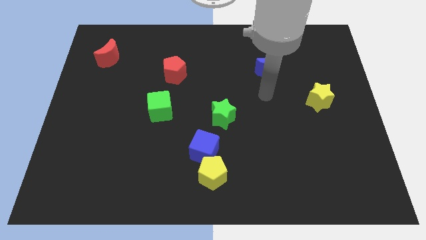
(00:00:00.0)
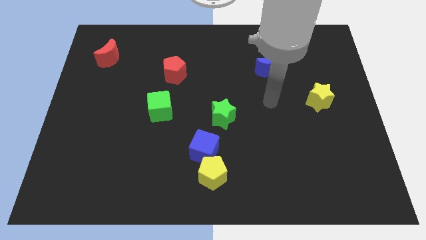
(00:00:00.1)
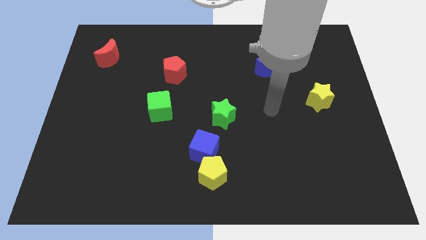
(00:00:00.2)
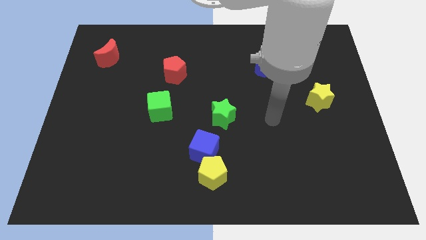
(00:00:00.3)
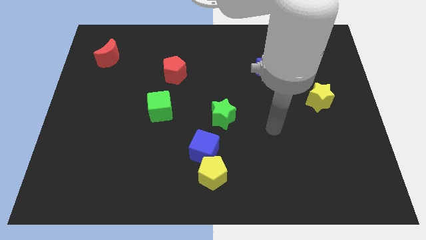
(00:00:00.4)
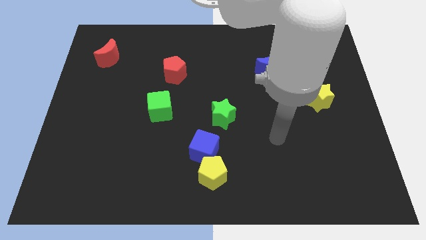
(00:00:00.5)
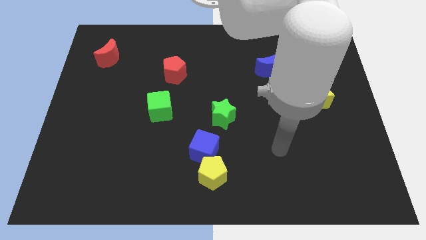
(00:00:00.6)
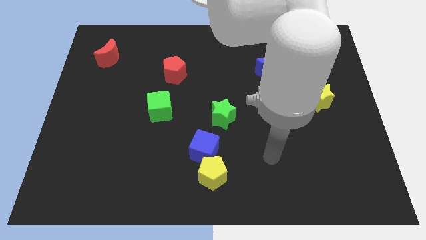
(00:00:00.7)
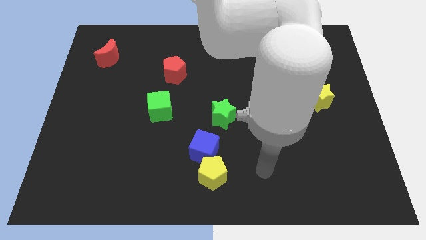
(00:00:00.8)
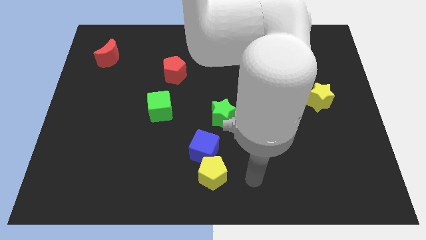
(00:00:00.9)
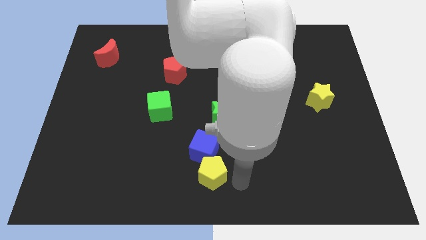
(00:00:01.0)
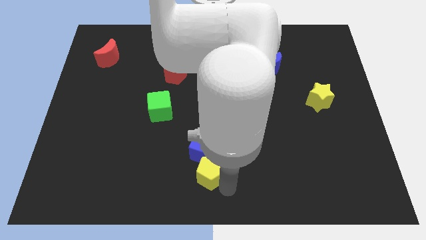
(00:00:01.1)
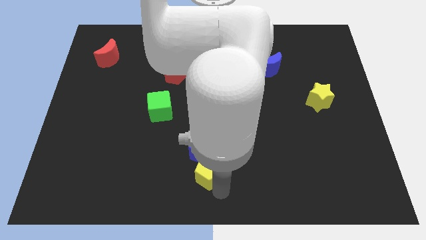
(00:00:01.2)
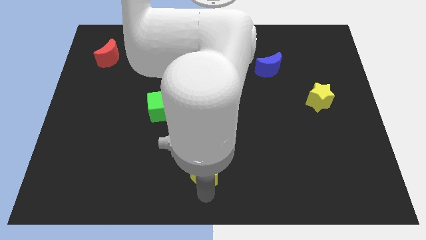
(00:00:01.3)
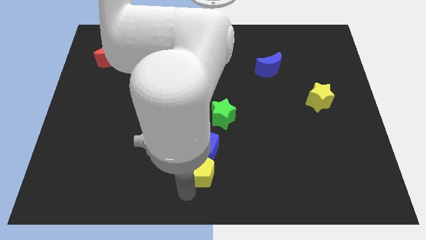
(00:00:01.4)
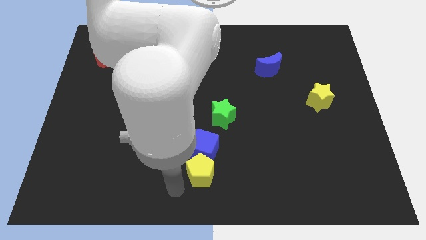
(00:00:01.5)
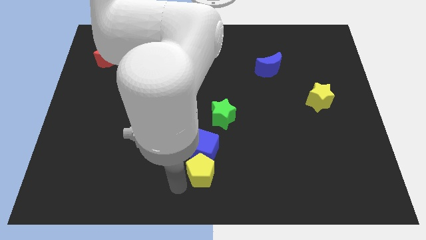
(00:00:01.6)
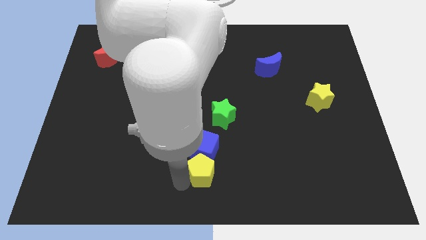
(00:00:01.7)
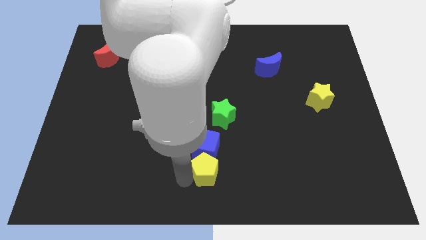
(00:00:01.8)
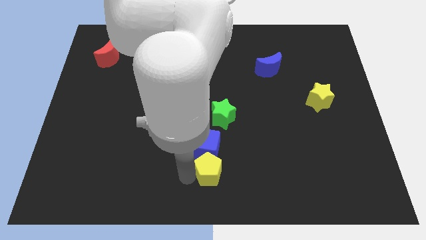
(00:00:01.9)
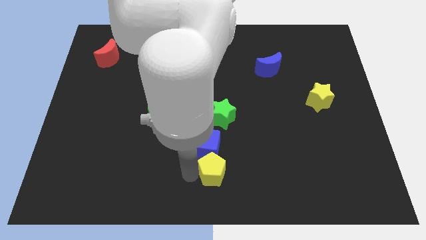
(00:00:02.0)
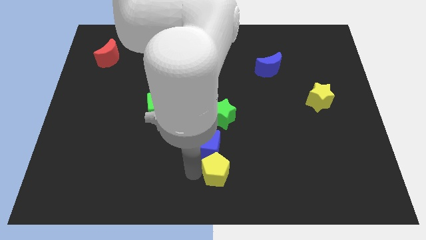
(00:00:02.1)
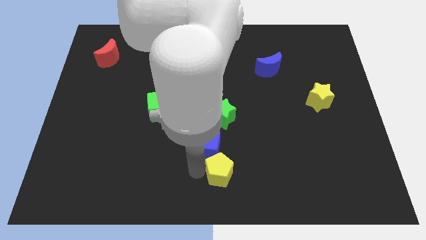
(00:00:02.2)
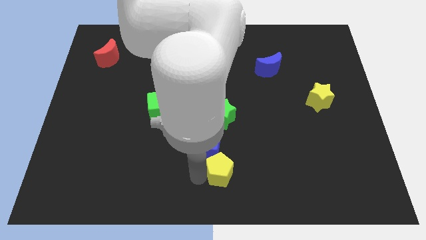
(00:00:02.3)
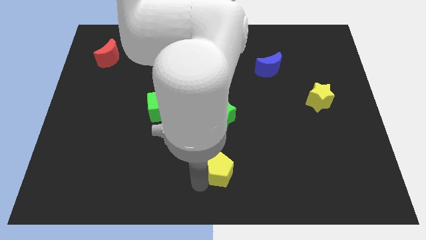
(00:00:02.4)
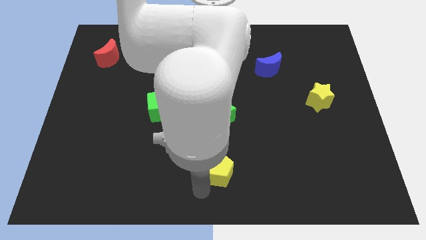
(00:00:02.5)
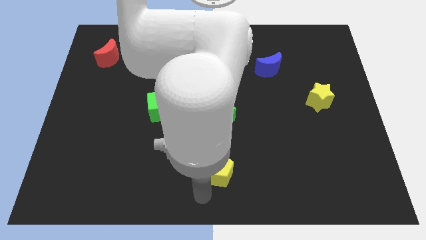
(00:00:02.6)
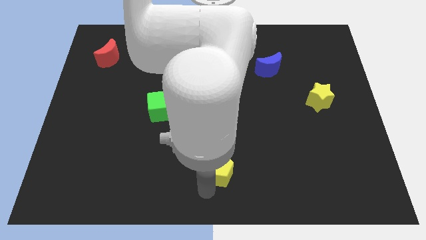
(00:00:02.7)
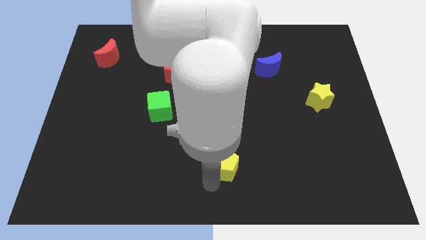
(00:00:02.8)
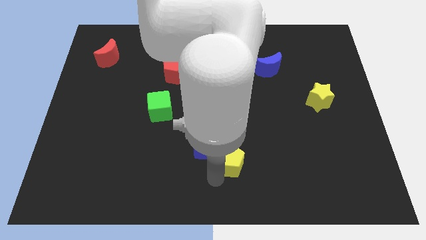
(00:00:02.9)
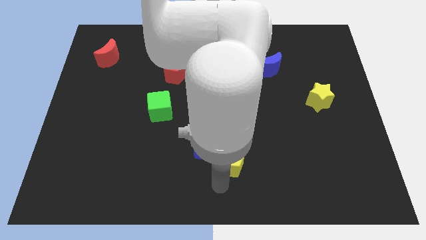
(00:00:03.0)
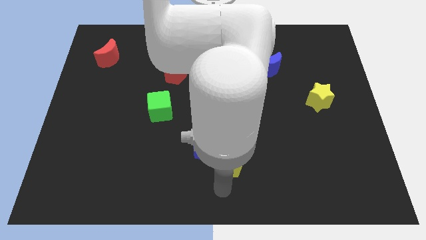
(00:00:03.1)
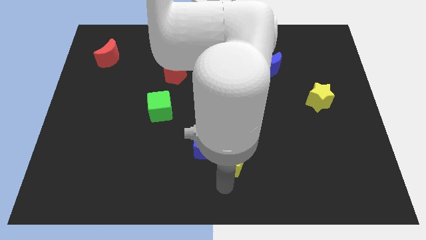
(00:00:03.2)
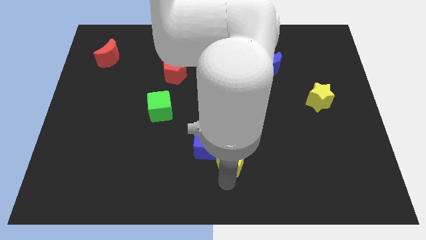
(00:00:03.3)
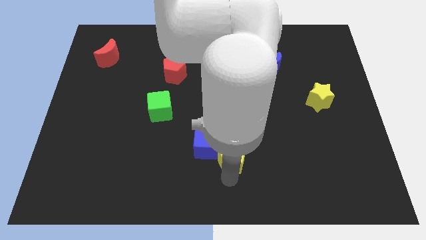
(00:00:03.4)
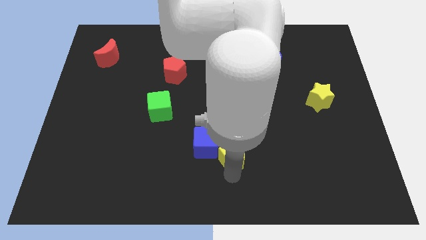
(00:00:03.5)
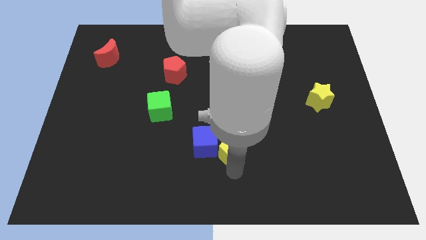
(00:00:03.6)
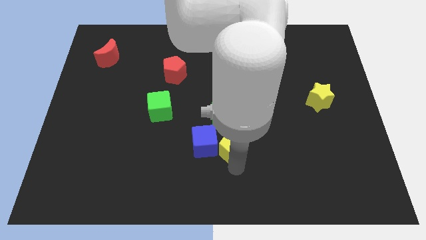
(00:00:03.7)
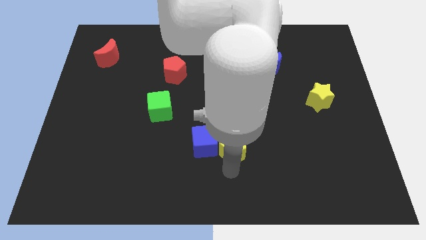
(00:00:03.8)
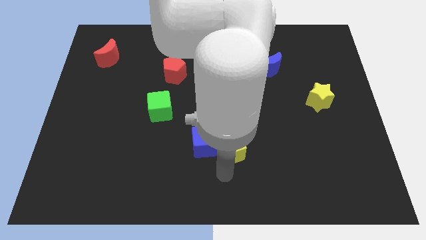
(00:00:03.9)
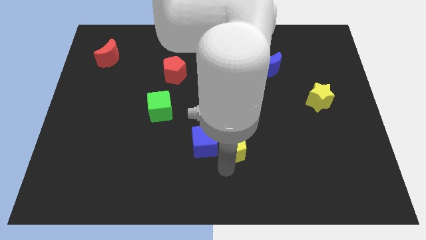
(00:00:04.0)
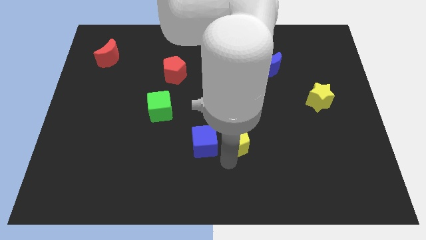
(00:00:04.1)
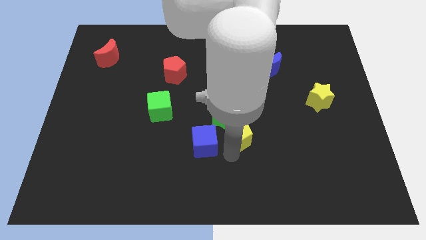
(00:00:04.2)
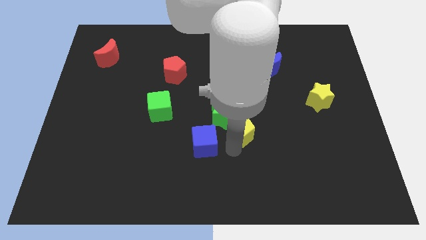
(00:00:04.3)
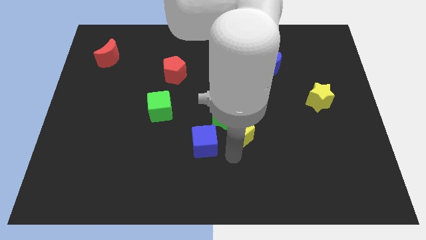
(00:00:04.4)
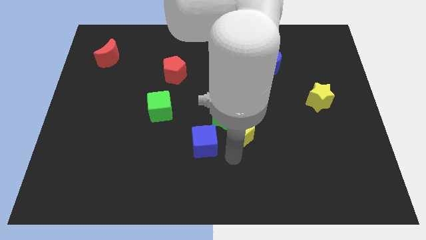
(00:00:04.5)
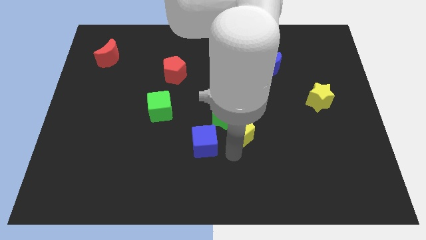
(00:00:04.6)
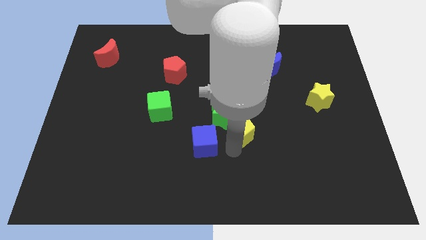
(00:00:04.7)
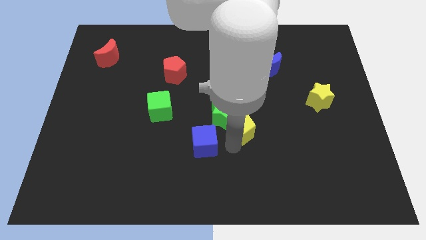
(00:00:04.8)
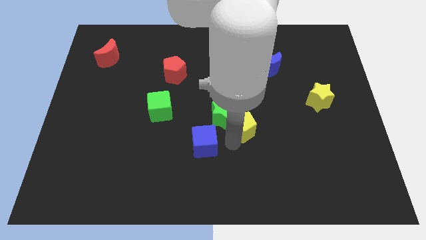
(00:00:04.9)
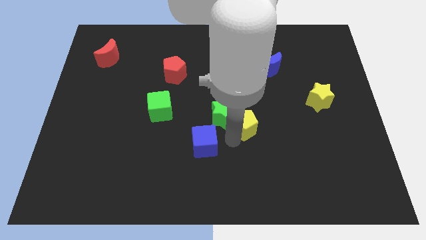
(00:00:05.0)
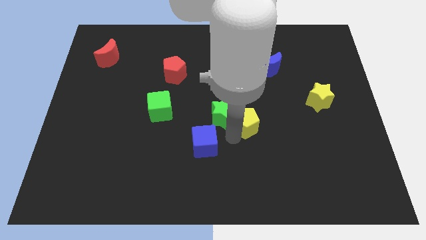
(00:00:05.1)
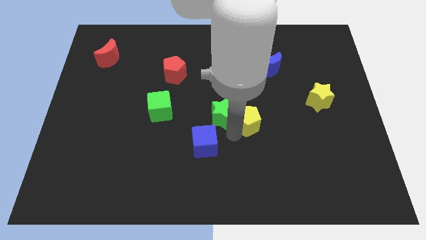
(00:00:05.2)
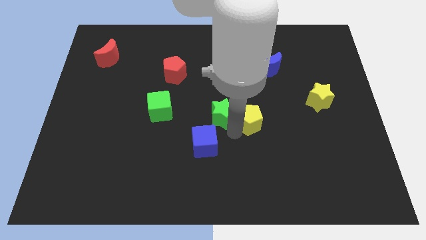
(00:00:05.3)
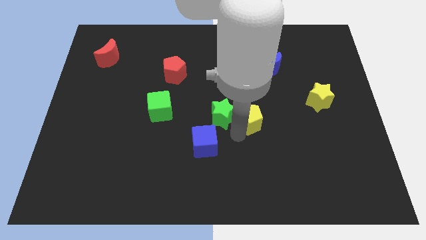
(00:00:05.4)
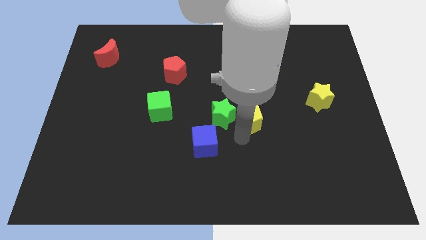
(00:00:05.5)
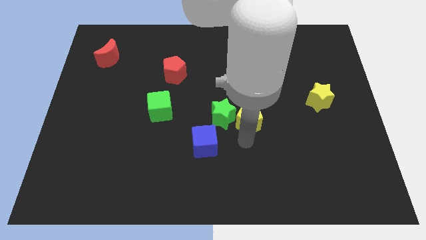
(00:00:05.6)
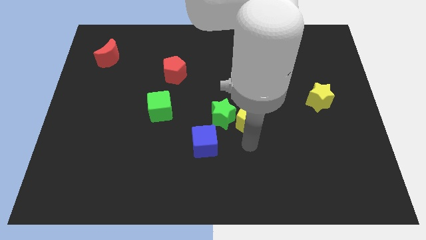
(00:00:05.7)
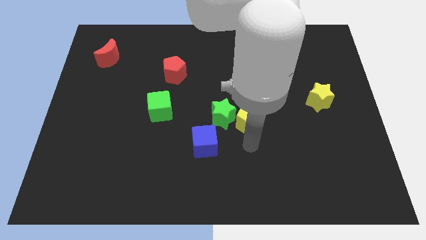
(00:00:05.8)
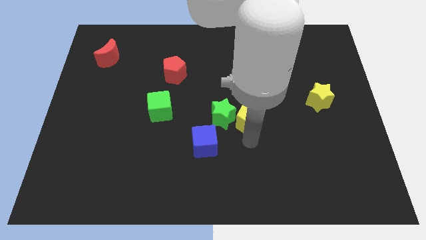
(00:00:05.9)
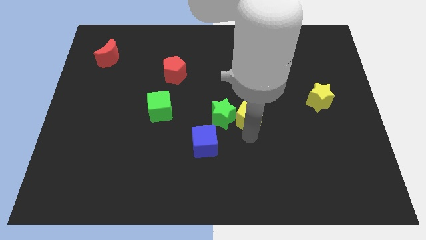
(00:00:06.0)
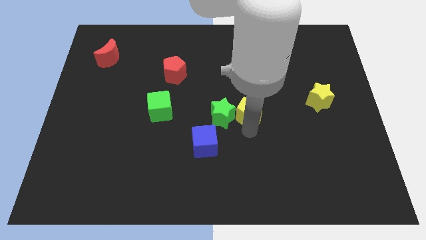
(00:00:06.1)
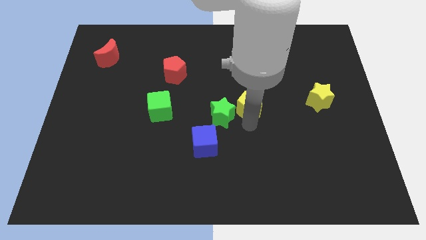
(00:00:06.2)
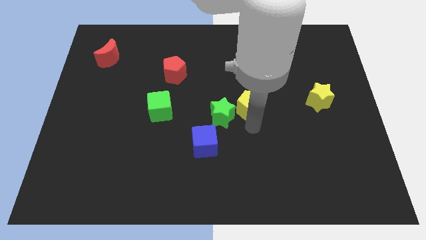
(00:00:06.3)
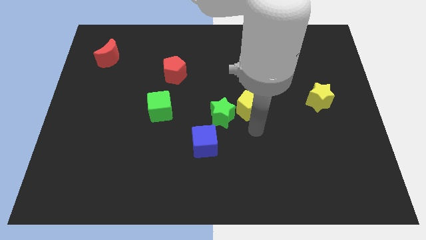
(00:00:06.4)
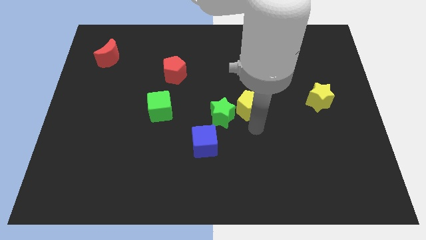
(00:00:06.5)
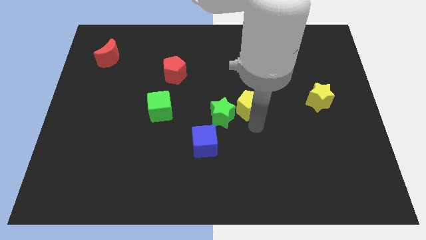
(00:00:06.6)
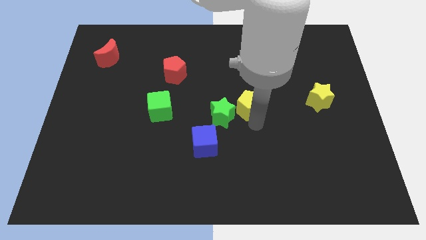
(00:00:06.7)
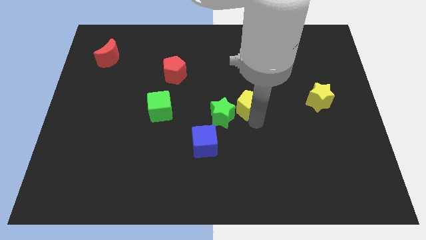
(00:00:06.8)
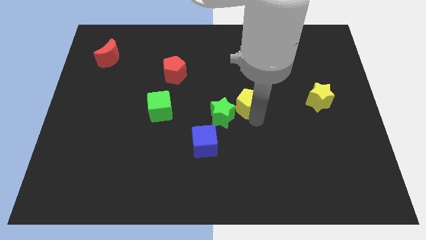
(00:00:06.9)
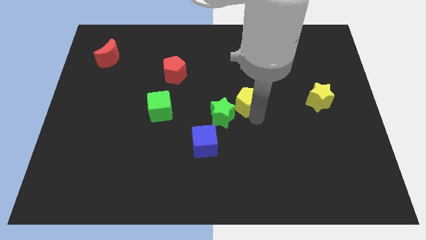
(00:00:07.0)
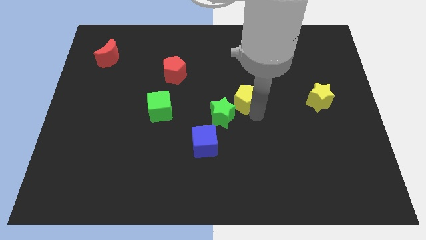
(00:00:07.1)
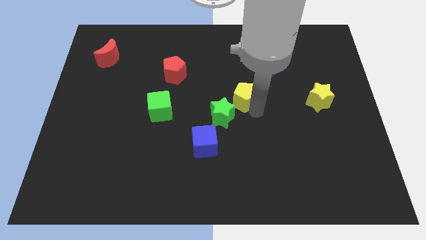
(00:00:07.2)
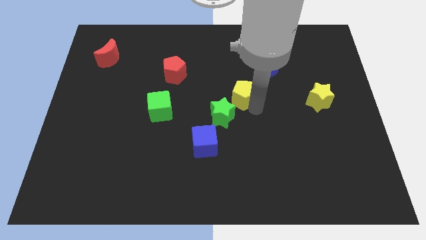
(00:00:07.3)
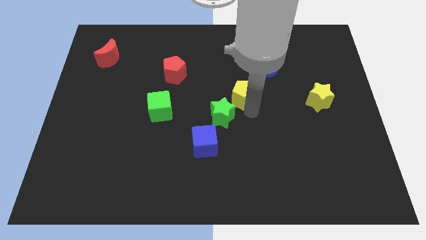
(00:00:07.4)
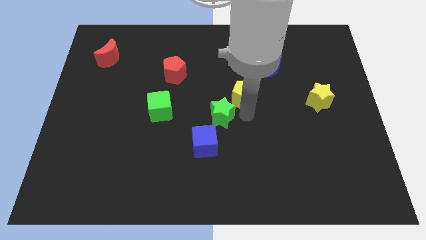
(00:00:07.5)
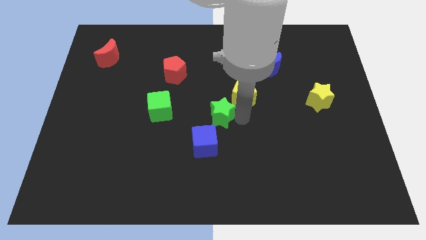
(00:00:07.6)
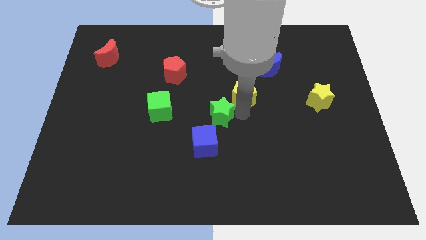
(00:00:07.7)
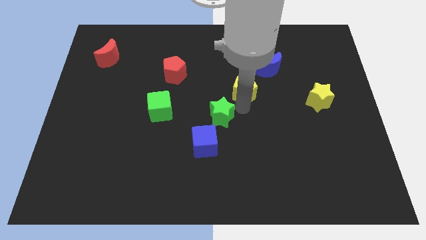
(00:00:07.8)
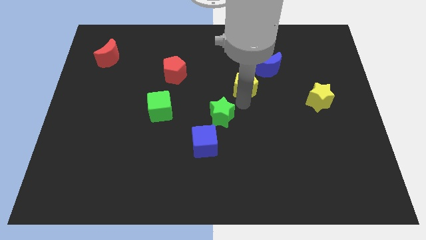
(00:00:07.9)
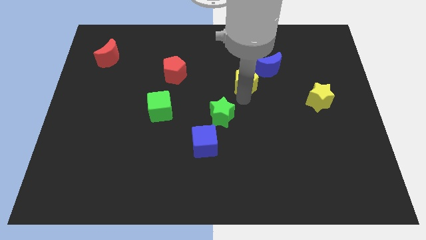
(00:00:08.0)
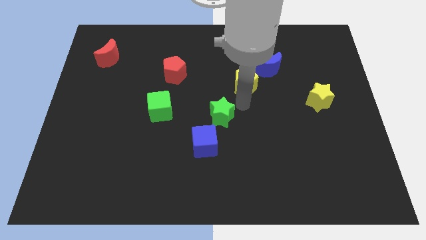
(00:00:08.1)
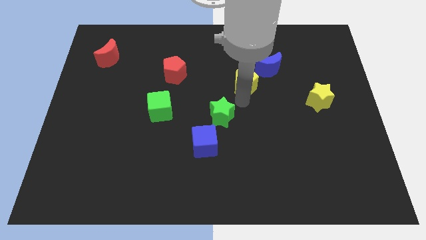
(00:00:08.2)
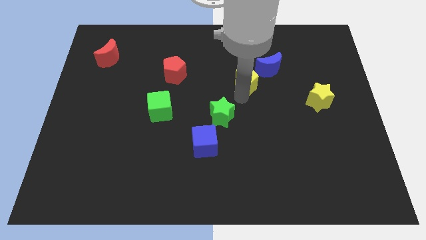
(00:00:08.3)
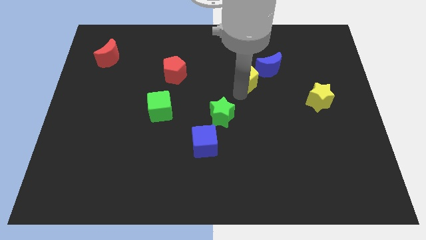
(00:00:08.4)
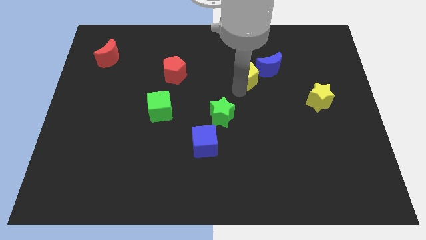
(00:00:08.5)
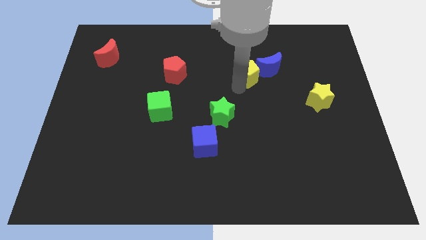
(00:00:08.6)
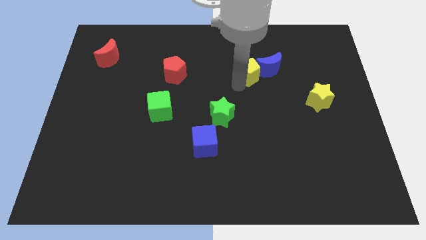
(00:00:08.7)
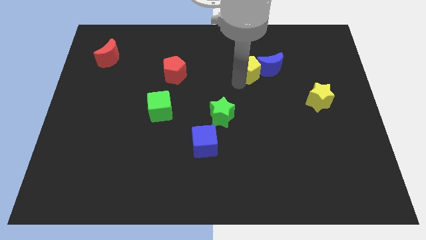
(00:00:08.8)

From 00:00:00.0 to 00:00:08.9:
move the yellow pentagon to the top left of the blue moon
